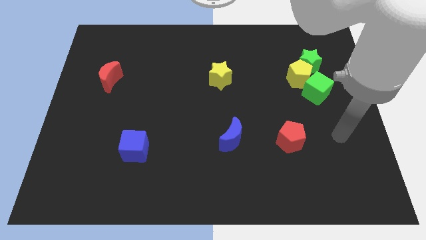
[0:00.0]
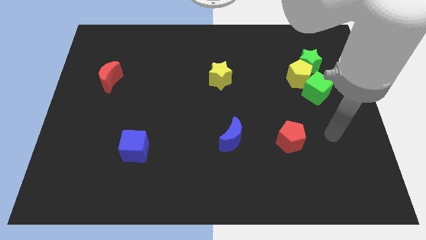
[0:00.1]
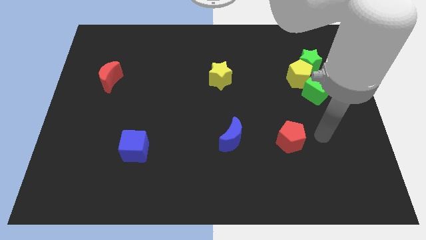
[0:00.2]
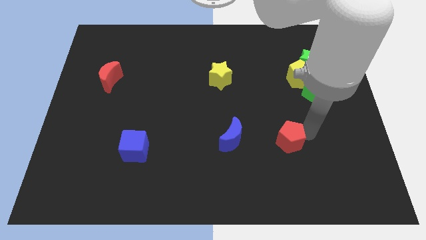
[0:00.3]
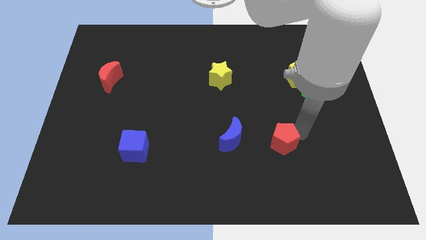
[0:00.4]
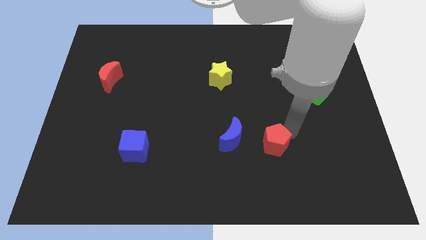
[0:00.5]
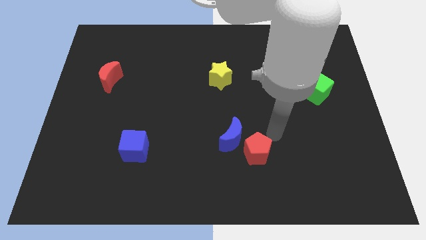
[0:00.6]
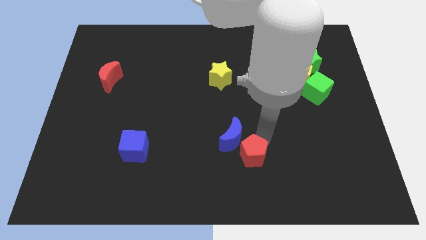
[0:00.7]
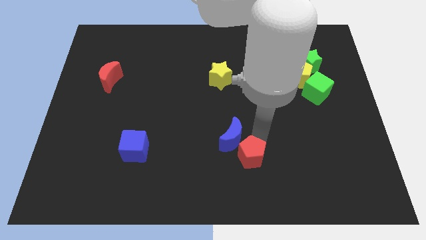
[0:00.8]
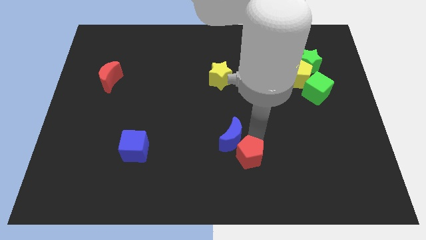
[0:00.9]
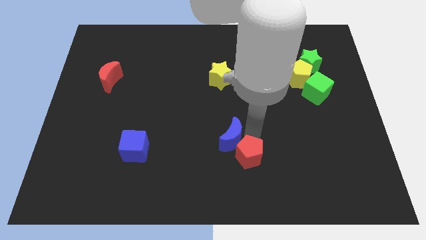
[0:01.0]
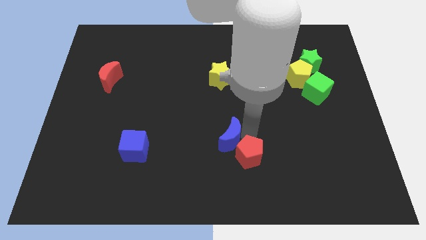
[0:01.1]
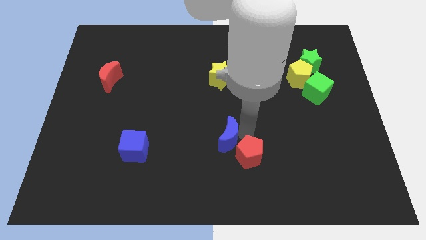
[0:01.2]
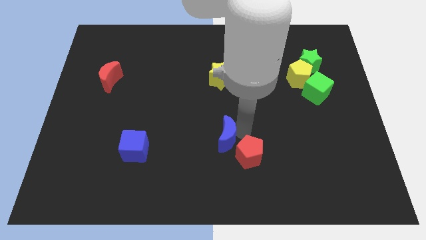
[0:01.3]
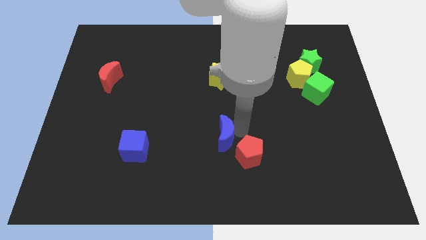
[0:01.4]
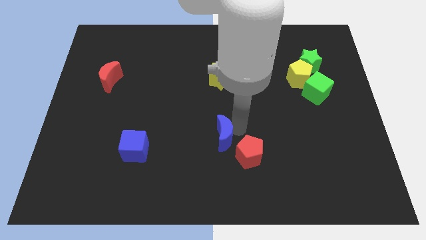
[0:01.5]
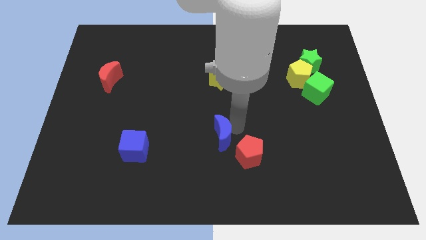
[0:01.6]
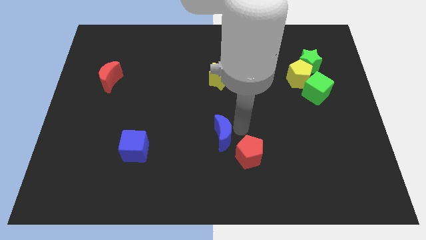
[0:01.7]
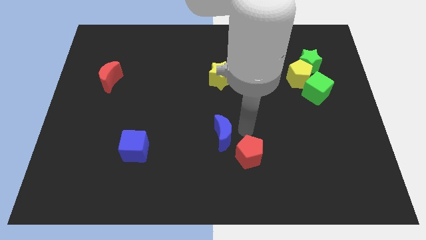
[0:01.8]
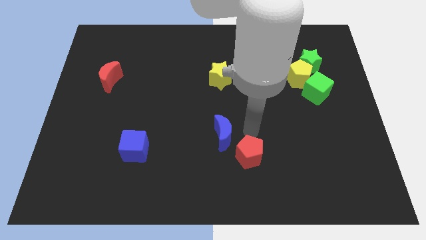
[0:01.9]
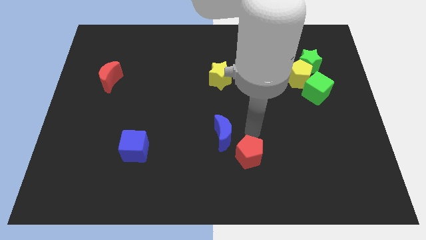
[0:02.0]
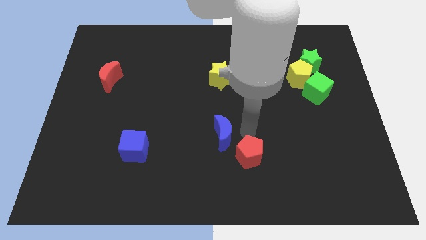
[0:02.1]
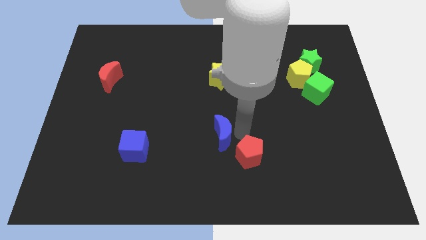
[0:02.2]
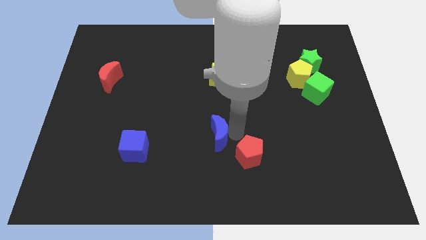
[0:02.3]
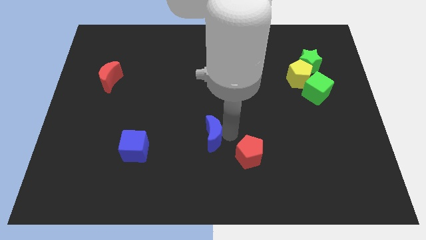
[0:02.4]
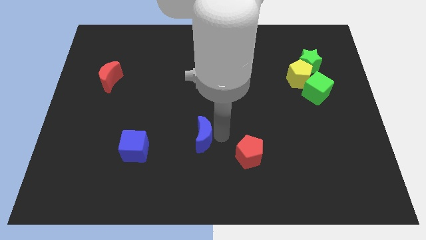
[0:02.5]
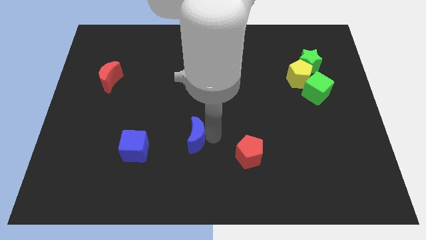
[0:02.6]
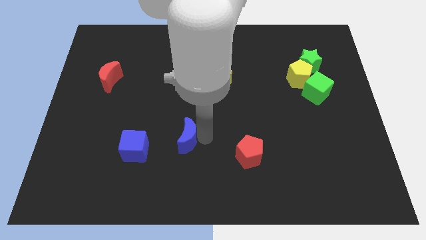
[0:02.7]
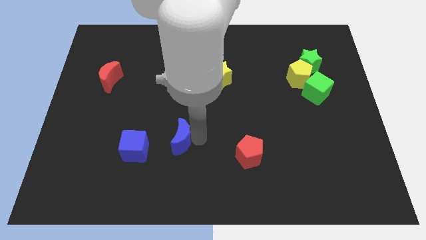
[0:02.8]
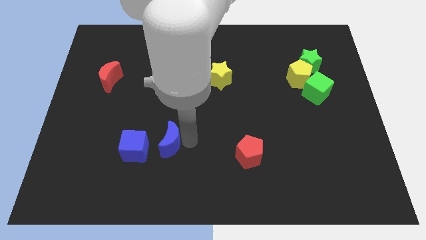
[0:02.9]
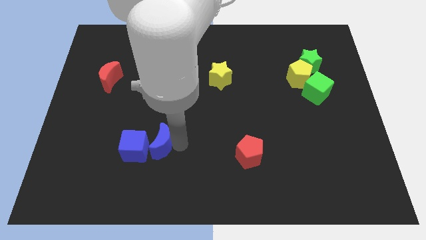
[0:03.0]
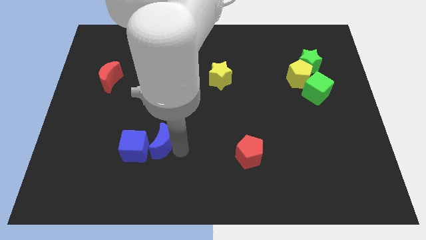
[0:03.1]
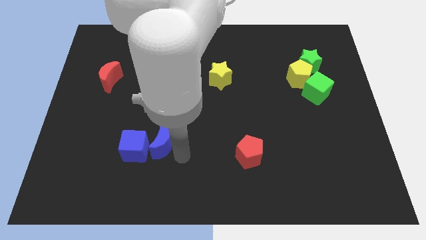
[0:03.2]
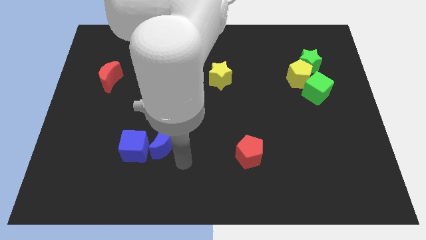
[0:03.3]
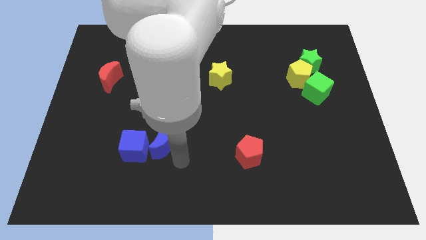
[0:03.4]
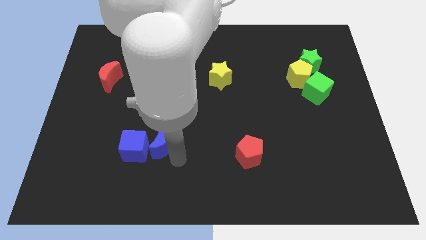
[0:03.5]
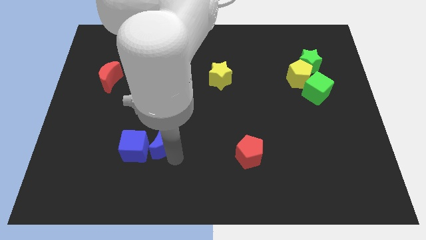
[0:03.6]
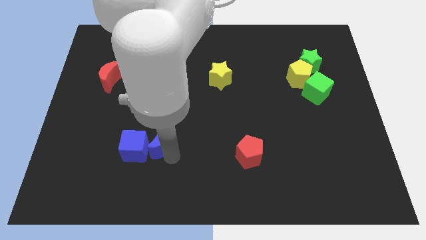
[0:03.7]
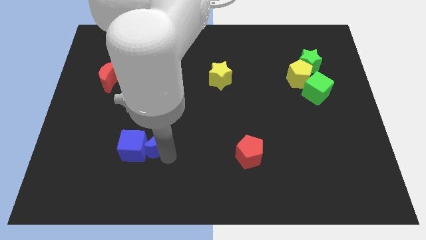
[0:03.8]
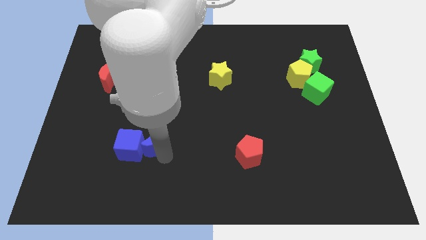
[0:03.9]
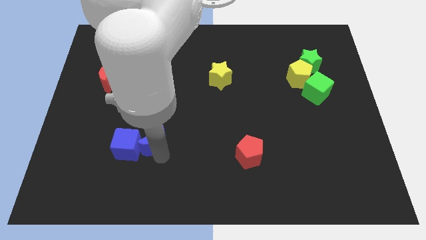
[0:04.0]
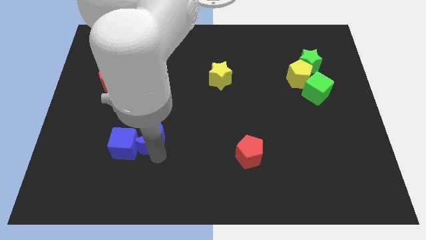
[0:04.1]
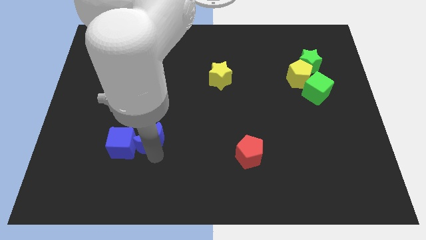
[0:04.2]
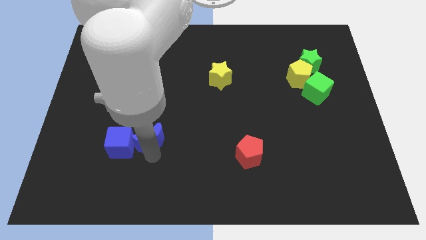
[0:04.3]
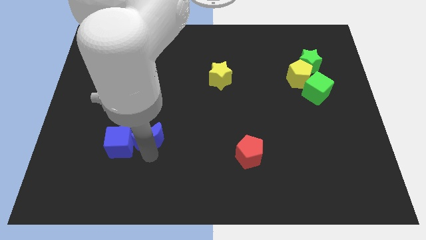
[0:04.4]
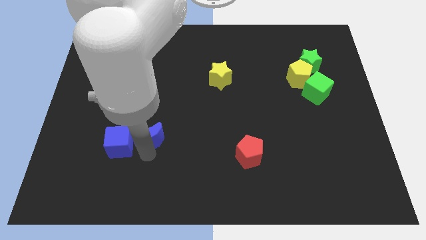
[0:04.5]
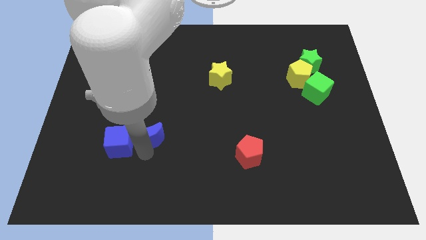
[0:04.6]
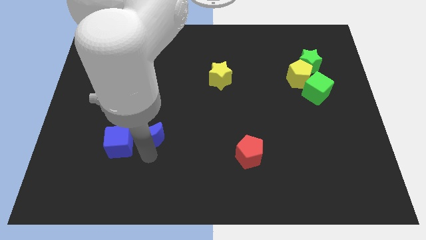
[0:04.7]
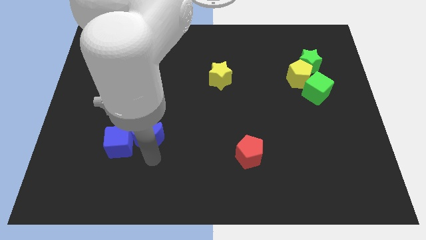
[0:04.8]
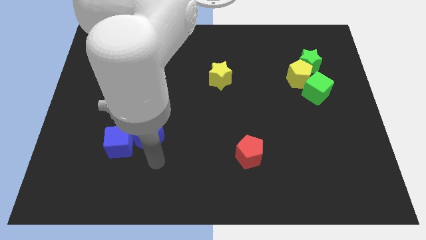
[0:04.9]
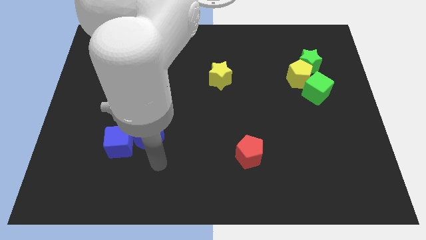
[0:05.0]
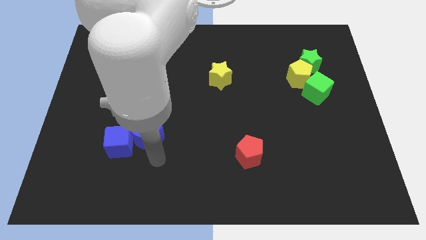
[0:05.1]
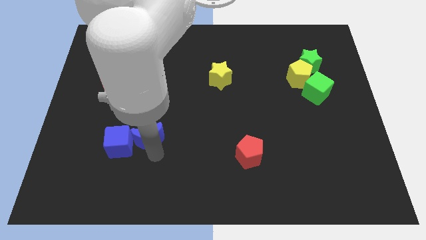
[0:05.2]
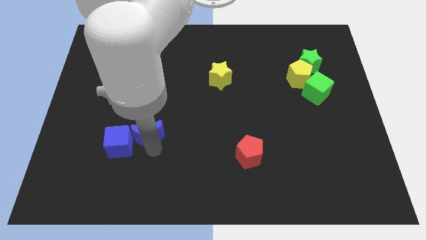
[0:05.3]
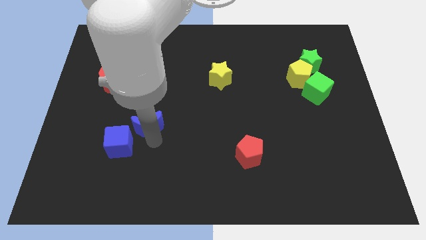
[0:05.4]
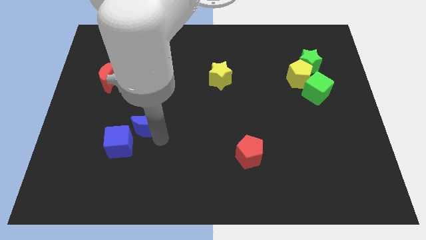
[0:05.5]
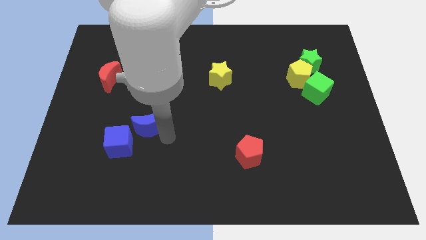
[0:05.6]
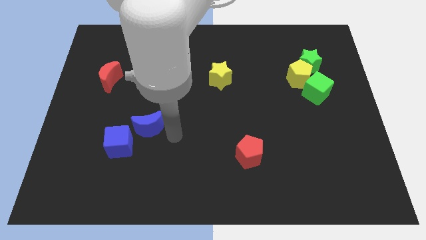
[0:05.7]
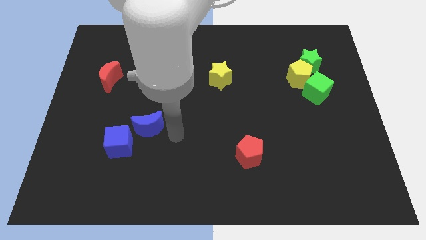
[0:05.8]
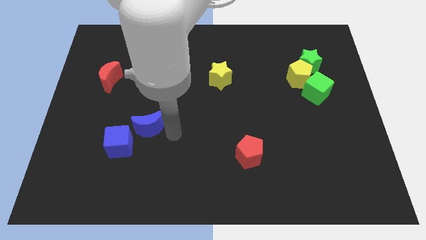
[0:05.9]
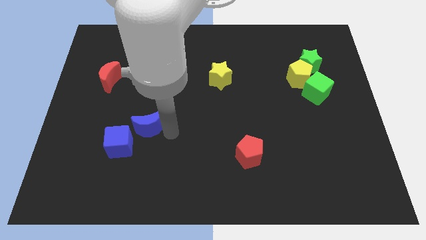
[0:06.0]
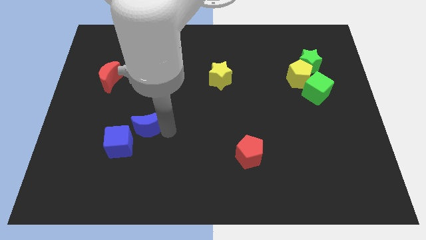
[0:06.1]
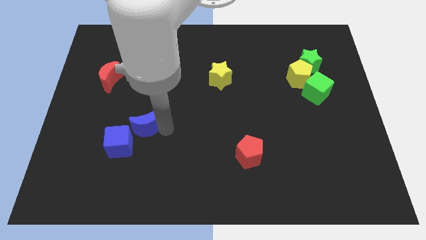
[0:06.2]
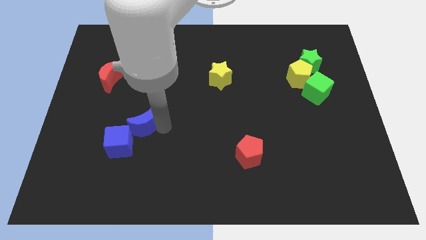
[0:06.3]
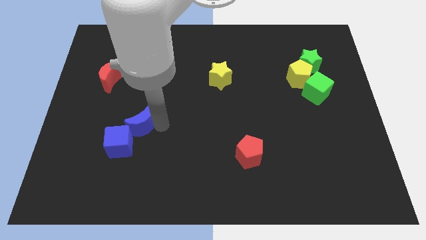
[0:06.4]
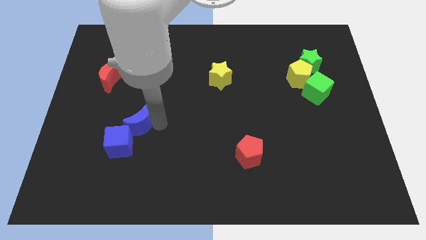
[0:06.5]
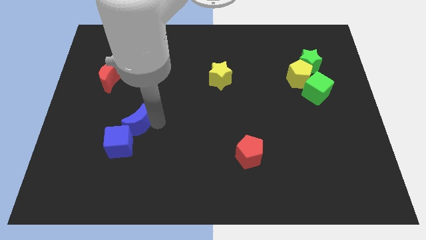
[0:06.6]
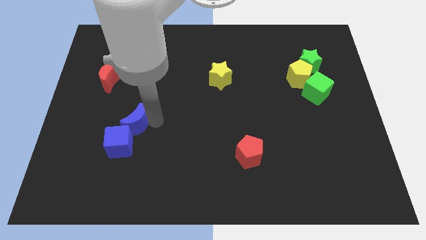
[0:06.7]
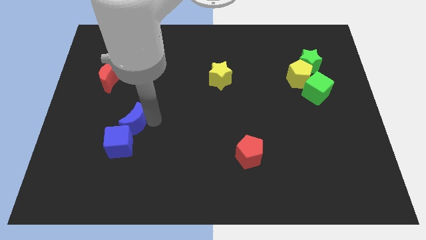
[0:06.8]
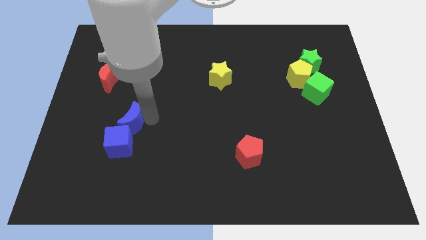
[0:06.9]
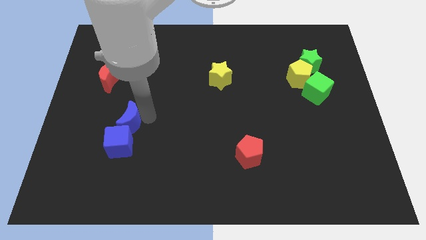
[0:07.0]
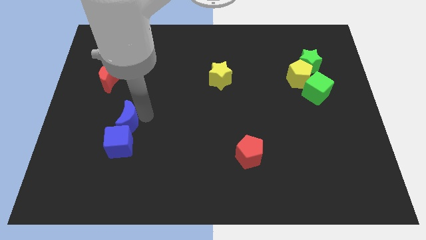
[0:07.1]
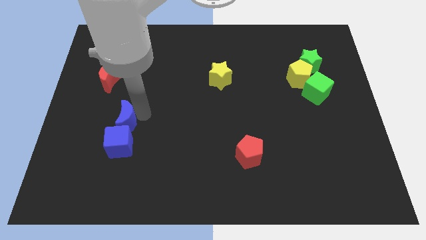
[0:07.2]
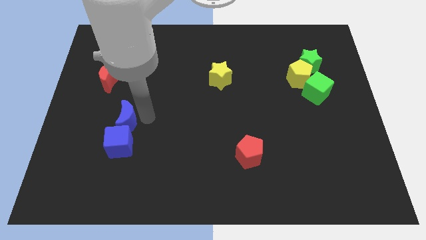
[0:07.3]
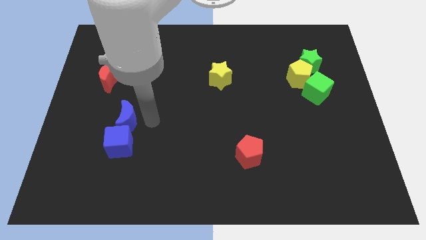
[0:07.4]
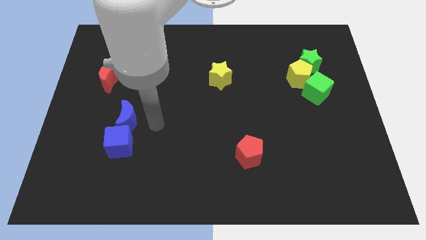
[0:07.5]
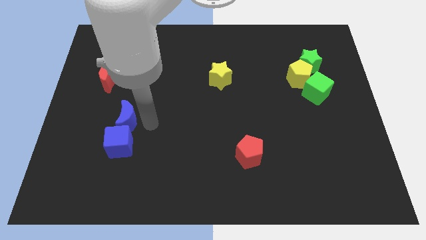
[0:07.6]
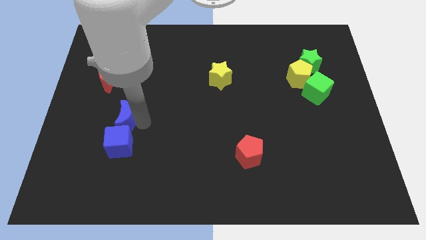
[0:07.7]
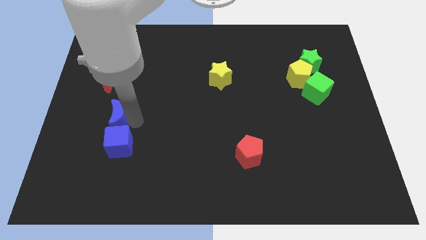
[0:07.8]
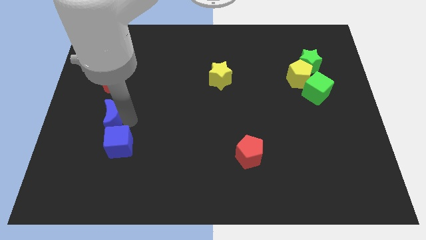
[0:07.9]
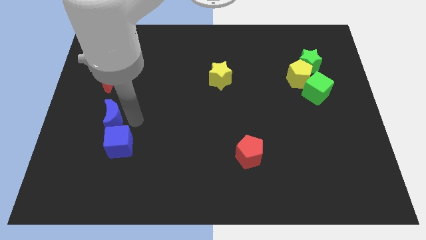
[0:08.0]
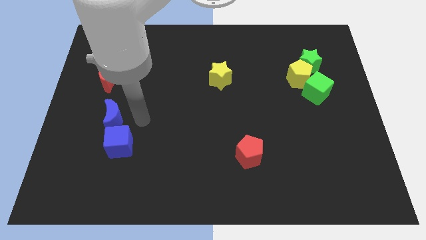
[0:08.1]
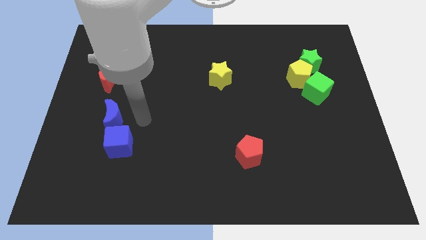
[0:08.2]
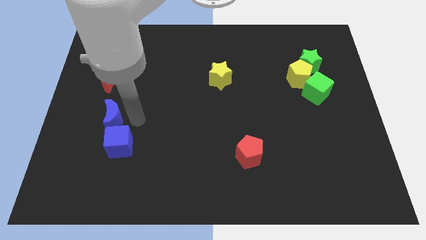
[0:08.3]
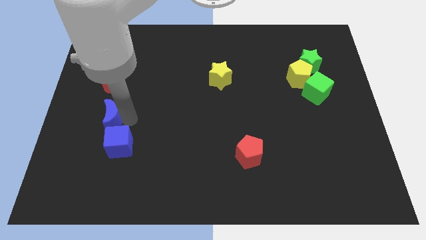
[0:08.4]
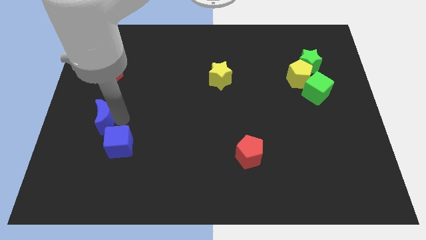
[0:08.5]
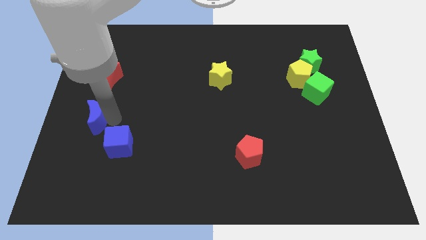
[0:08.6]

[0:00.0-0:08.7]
put the blue moon to the center left
